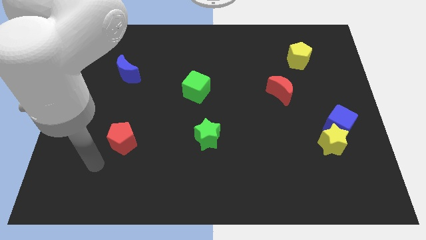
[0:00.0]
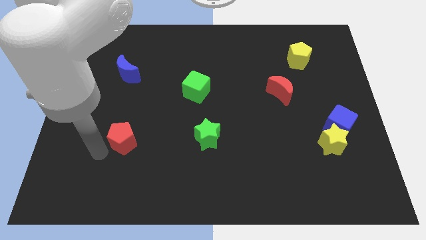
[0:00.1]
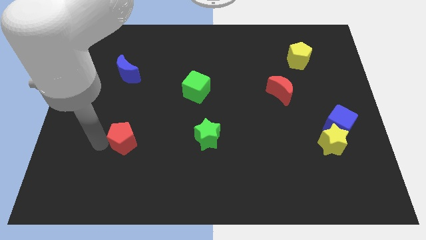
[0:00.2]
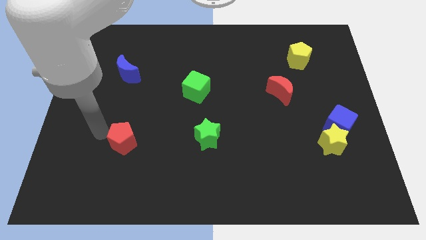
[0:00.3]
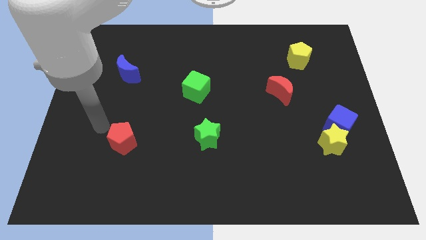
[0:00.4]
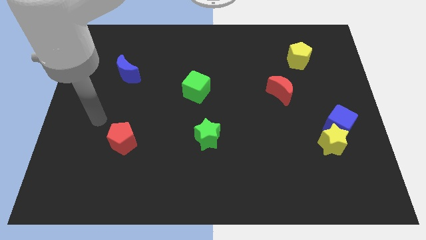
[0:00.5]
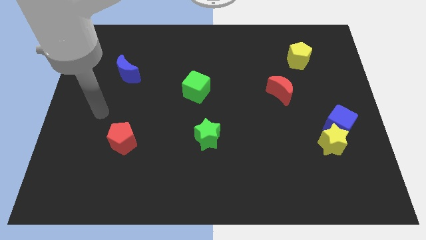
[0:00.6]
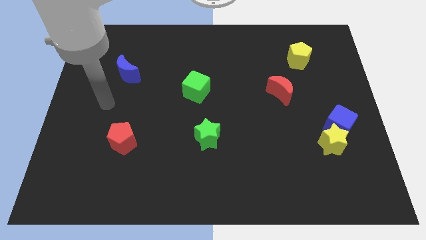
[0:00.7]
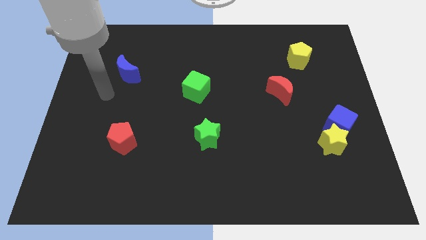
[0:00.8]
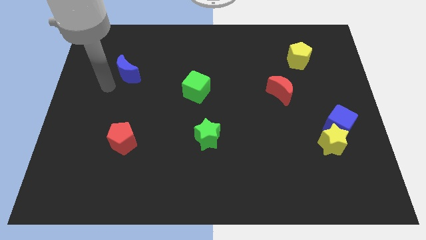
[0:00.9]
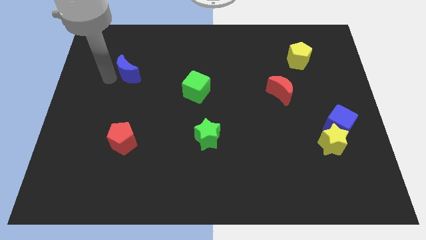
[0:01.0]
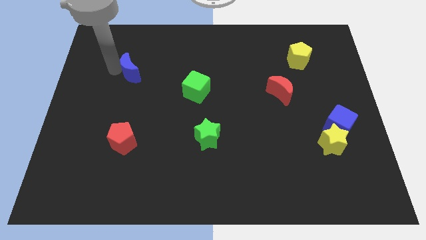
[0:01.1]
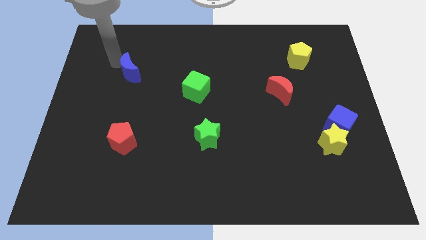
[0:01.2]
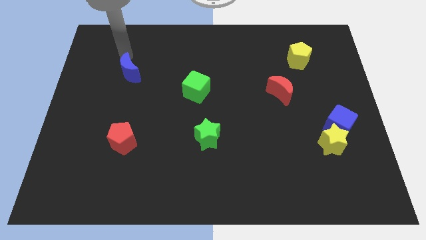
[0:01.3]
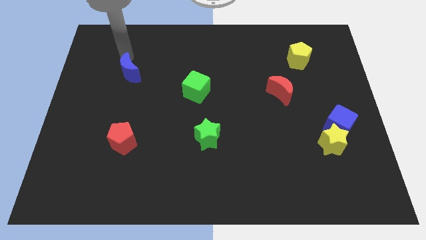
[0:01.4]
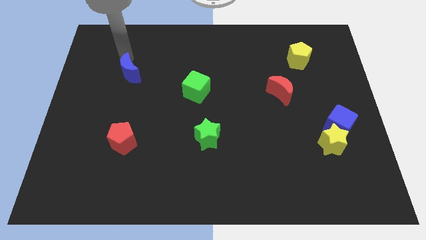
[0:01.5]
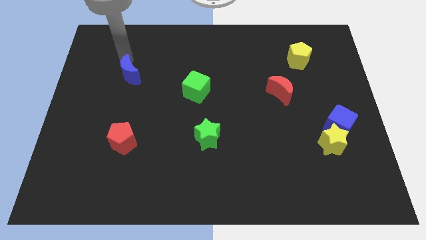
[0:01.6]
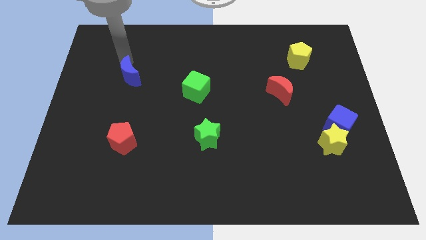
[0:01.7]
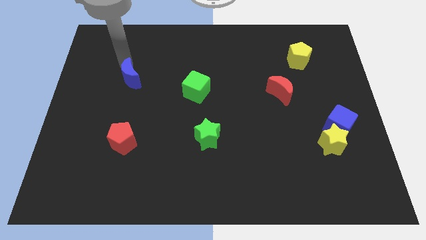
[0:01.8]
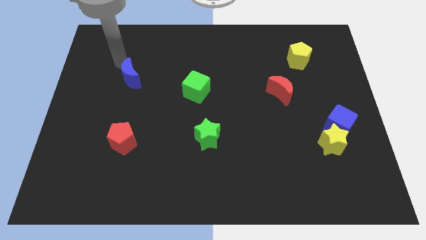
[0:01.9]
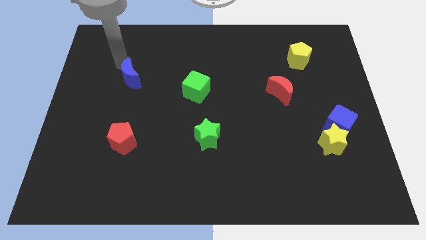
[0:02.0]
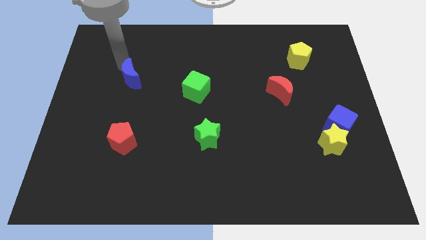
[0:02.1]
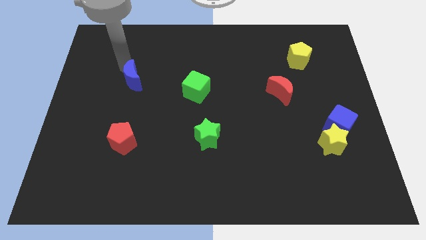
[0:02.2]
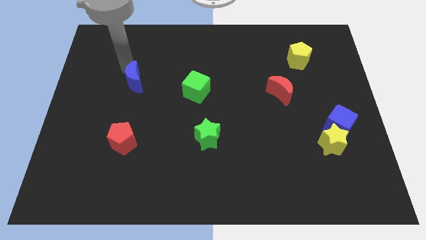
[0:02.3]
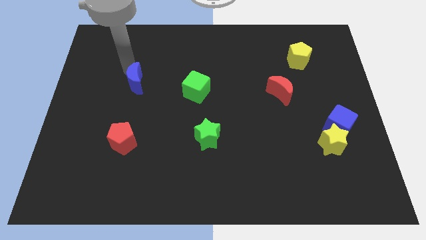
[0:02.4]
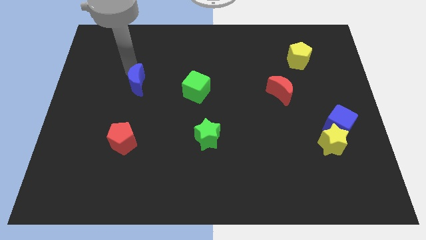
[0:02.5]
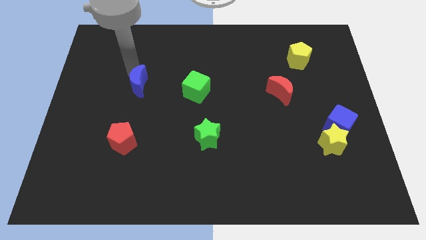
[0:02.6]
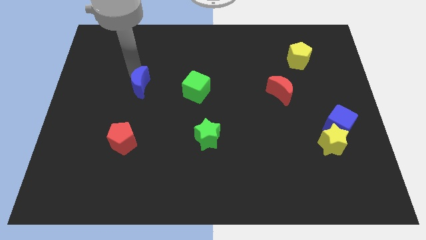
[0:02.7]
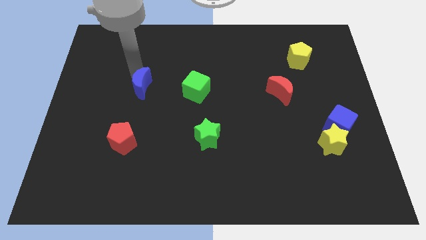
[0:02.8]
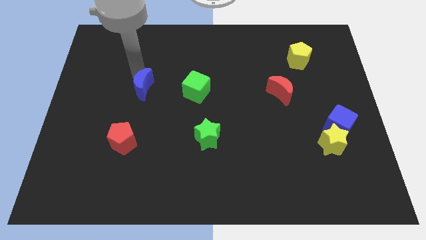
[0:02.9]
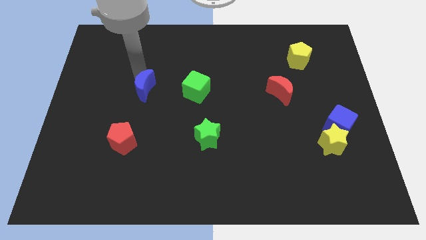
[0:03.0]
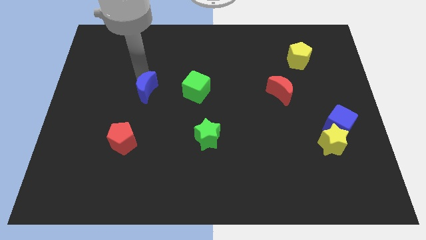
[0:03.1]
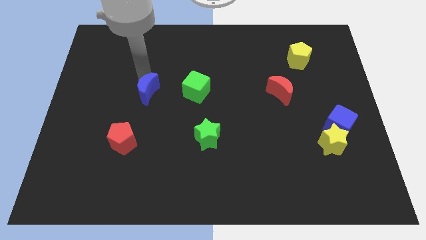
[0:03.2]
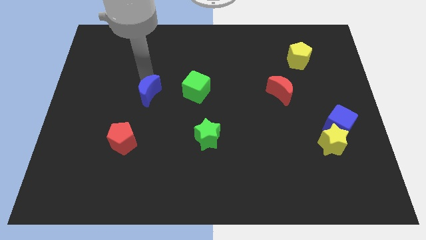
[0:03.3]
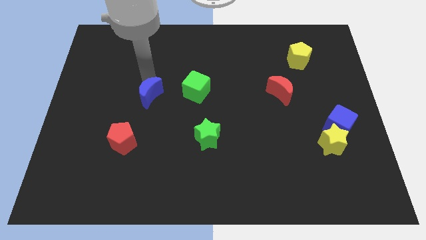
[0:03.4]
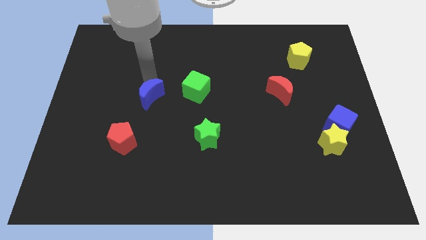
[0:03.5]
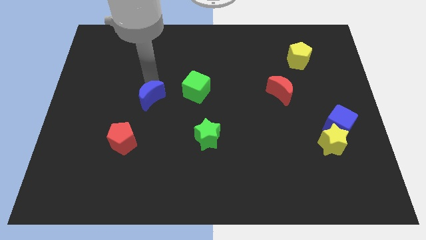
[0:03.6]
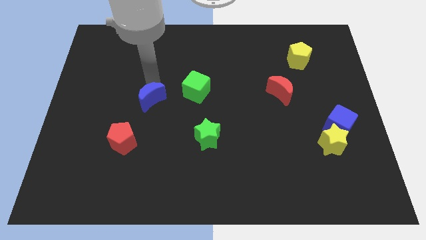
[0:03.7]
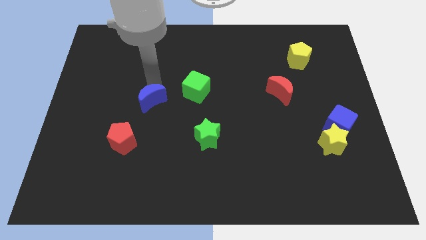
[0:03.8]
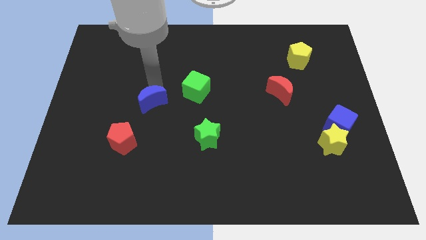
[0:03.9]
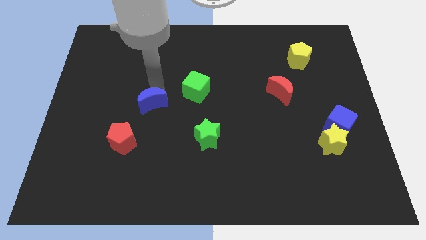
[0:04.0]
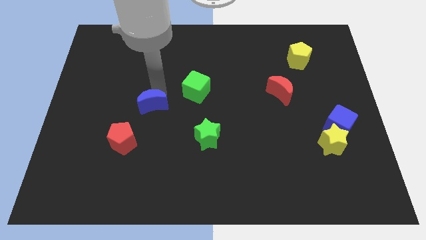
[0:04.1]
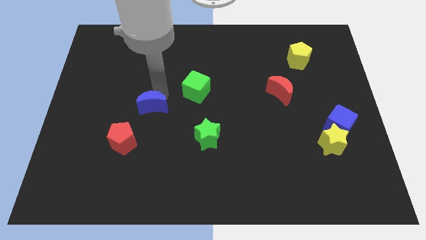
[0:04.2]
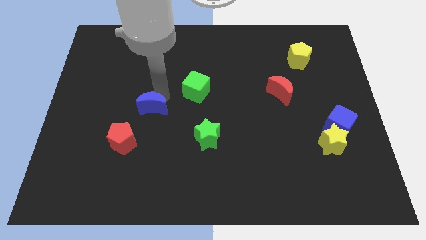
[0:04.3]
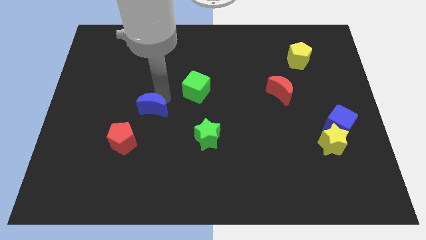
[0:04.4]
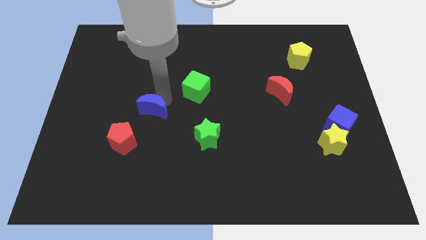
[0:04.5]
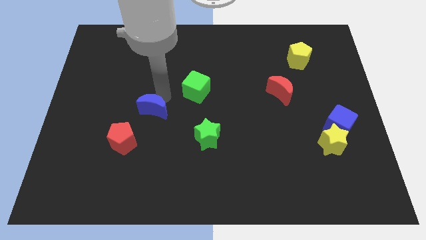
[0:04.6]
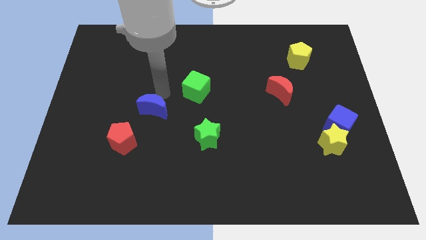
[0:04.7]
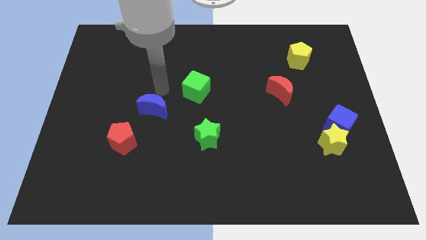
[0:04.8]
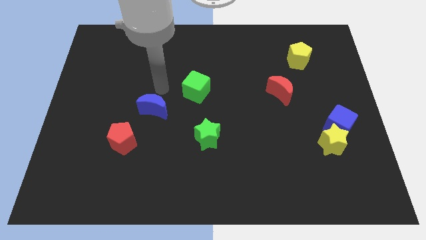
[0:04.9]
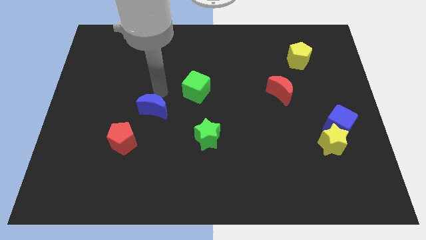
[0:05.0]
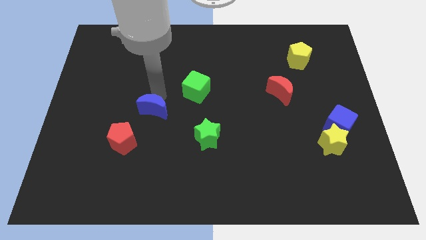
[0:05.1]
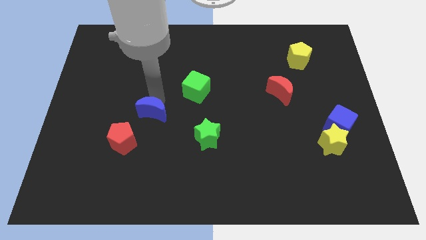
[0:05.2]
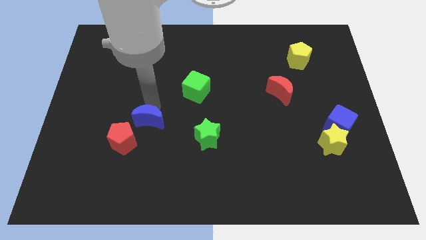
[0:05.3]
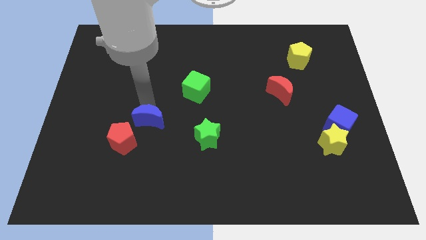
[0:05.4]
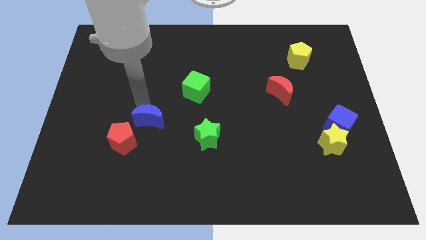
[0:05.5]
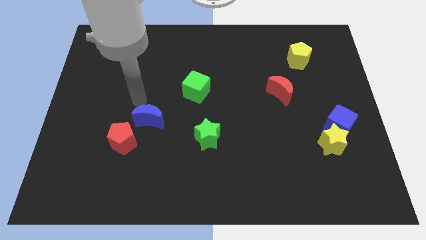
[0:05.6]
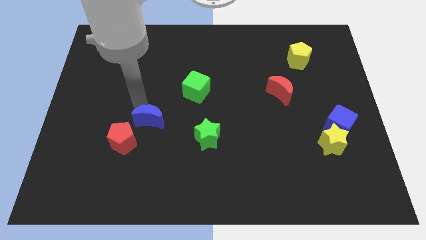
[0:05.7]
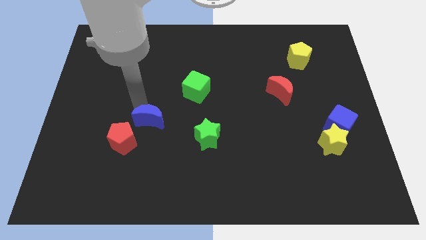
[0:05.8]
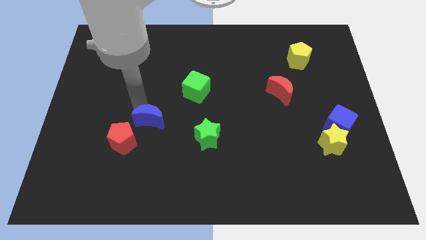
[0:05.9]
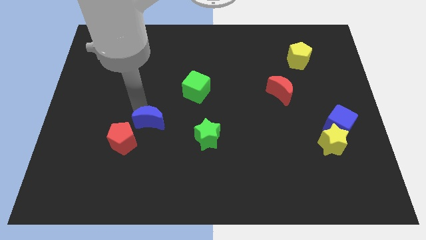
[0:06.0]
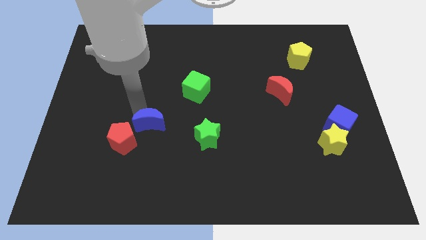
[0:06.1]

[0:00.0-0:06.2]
push the blue moon just left of the green star

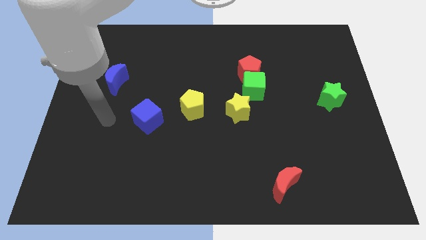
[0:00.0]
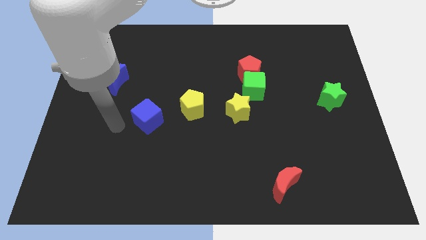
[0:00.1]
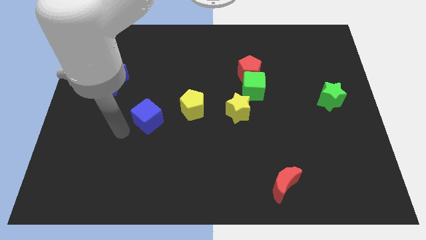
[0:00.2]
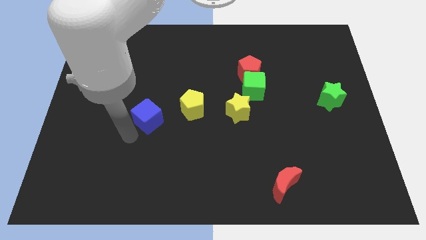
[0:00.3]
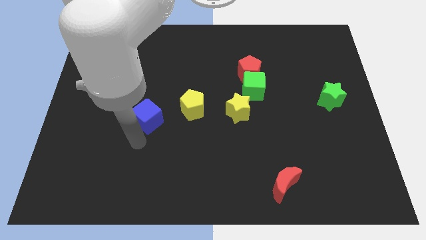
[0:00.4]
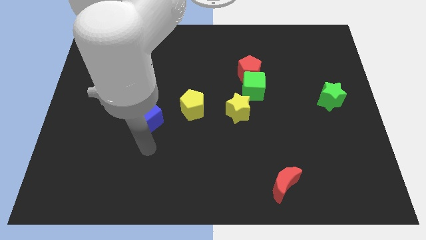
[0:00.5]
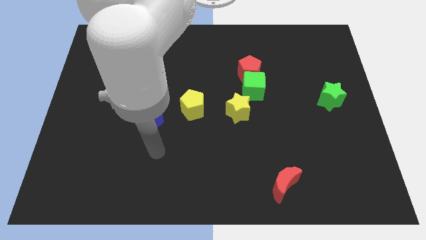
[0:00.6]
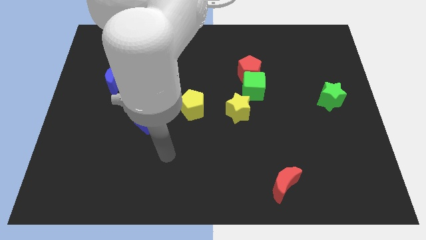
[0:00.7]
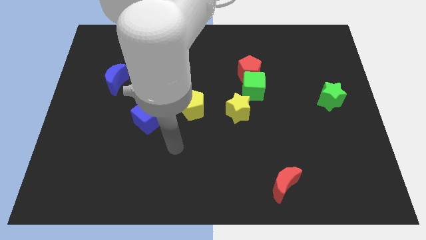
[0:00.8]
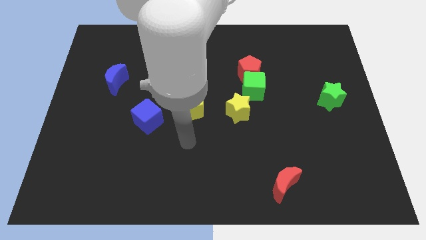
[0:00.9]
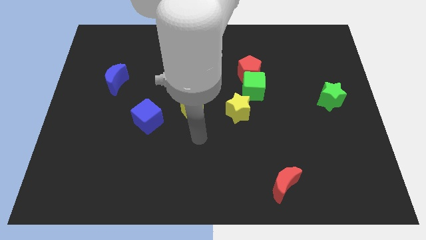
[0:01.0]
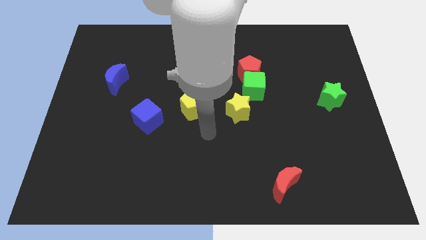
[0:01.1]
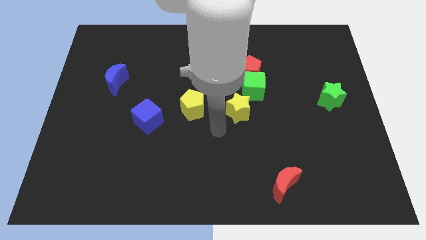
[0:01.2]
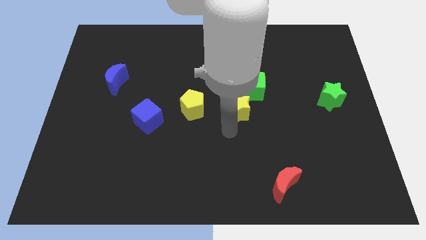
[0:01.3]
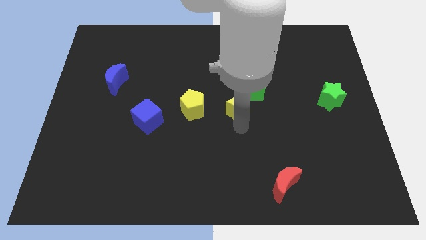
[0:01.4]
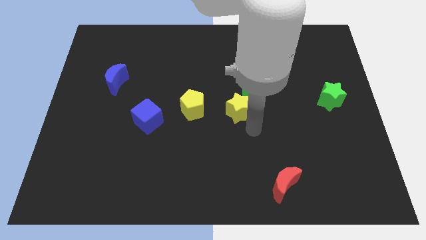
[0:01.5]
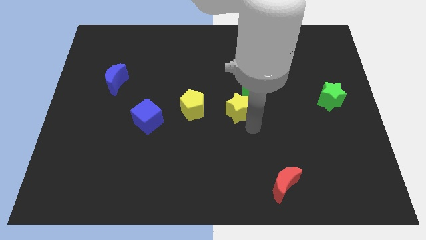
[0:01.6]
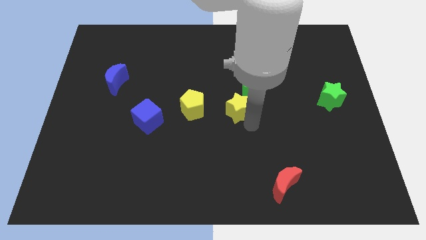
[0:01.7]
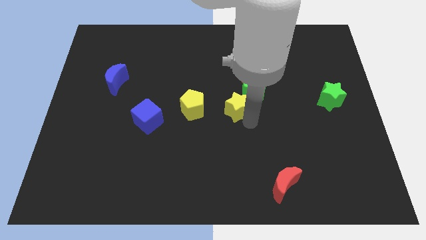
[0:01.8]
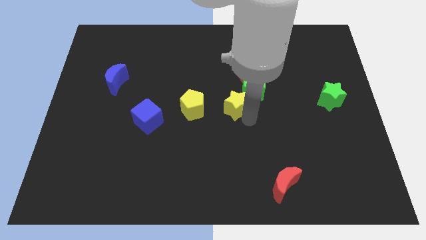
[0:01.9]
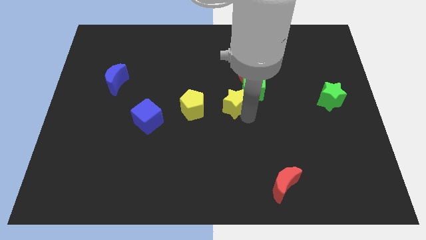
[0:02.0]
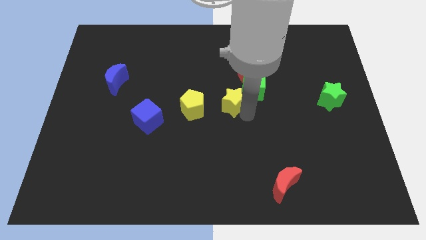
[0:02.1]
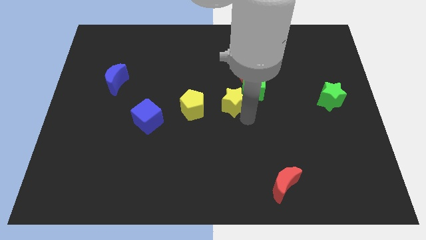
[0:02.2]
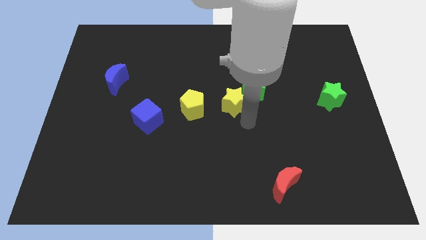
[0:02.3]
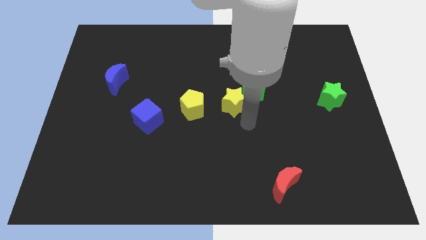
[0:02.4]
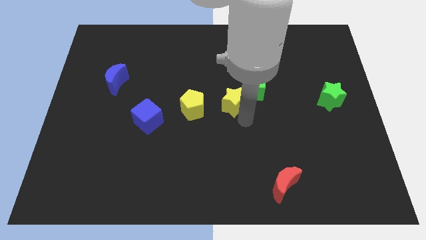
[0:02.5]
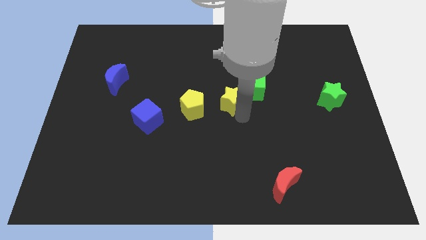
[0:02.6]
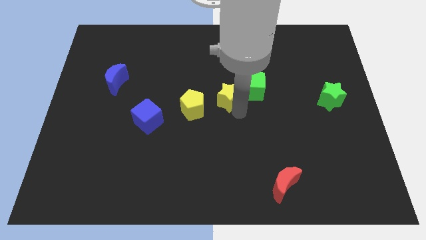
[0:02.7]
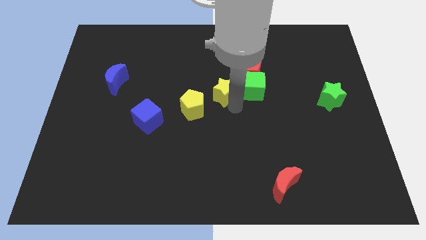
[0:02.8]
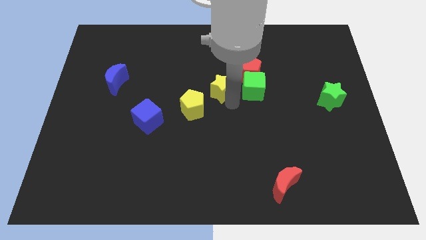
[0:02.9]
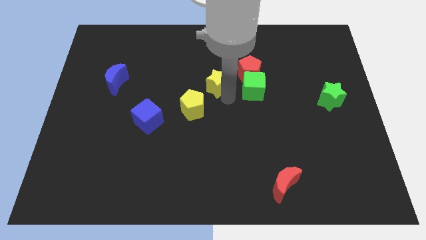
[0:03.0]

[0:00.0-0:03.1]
move the yellow star left of the red pentagon
